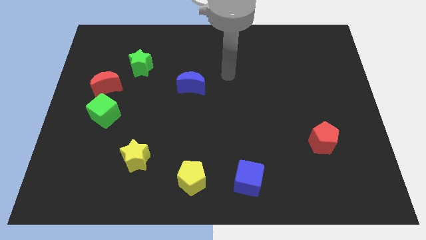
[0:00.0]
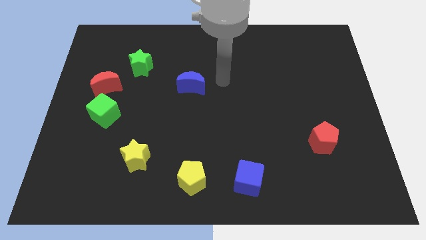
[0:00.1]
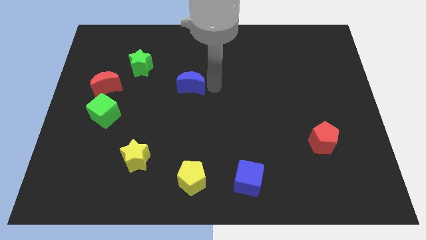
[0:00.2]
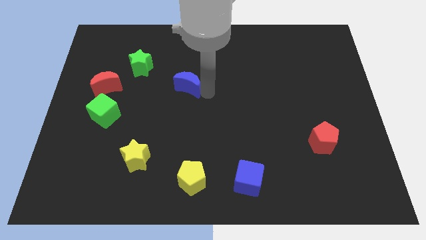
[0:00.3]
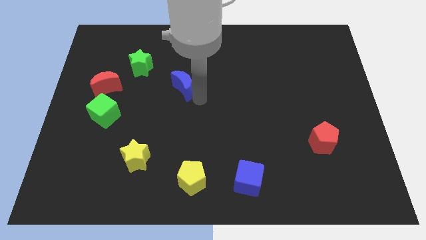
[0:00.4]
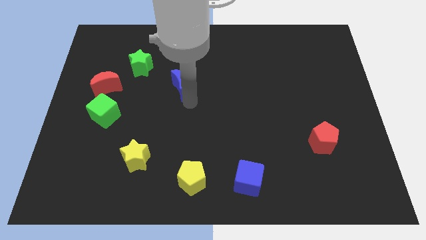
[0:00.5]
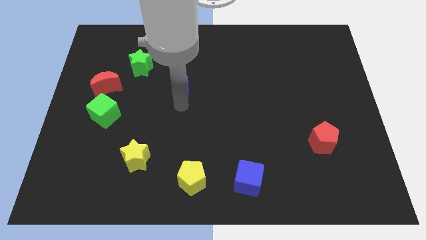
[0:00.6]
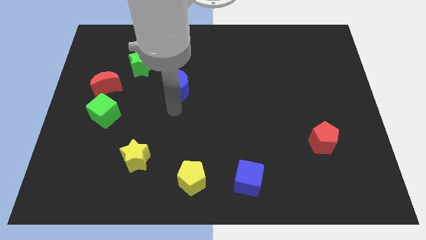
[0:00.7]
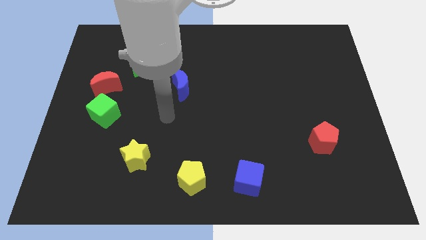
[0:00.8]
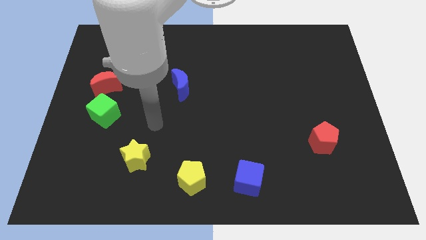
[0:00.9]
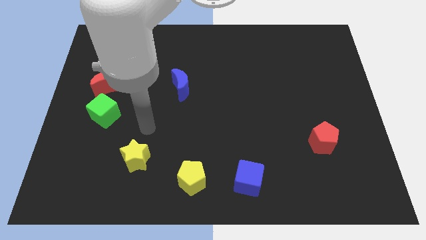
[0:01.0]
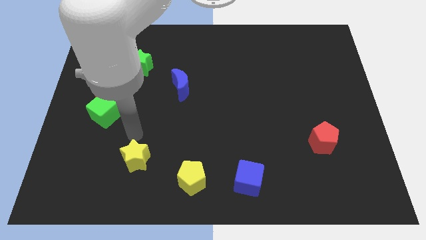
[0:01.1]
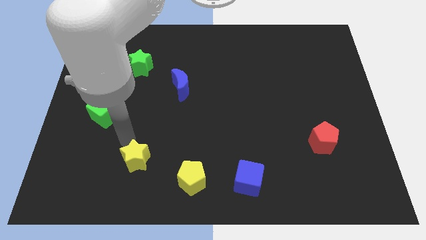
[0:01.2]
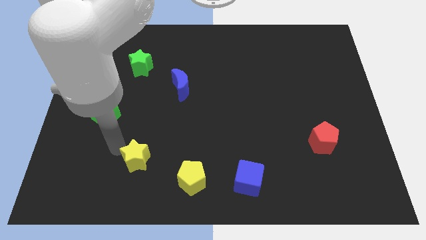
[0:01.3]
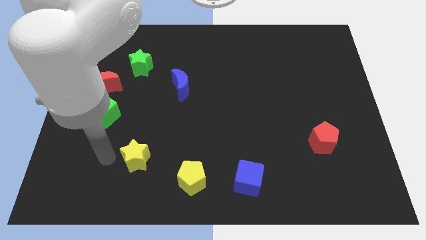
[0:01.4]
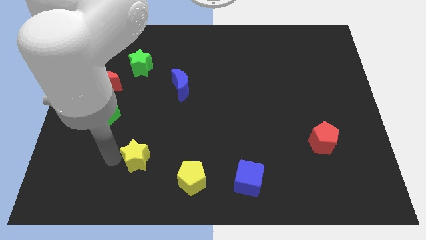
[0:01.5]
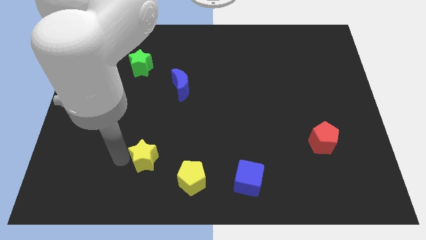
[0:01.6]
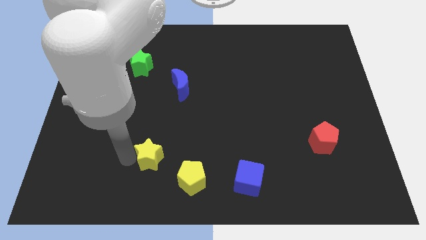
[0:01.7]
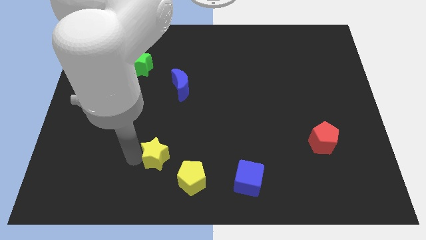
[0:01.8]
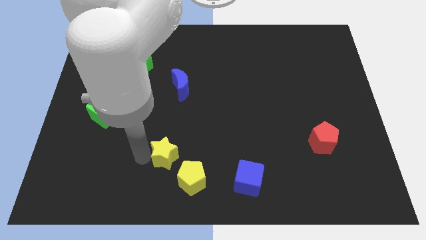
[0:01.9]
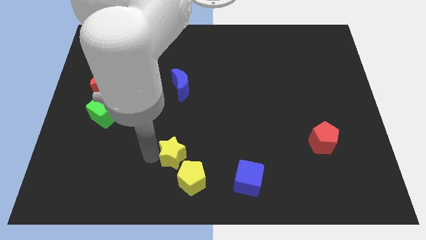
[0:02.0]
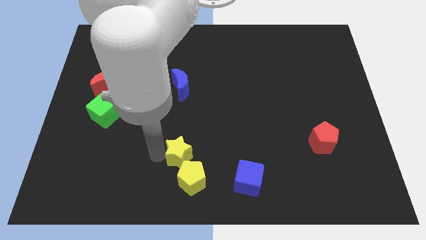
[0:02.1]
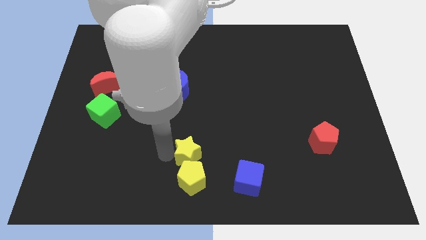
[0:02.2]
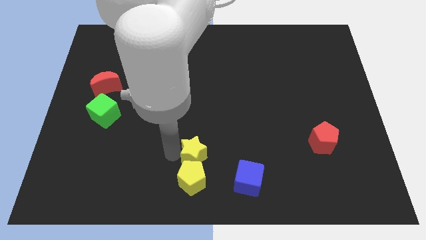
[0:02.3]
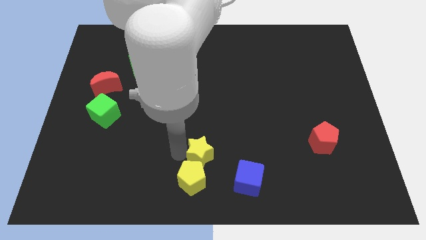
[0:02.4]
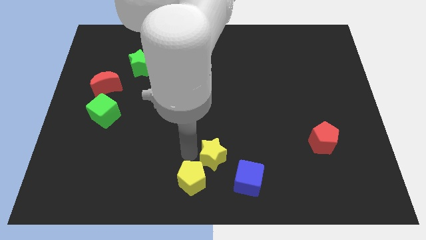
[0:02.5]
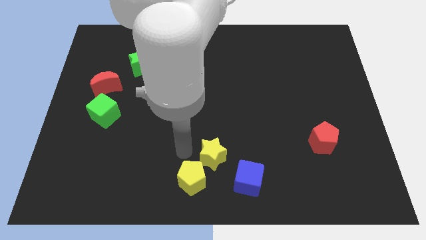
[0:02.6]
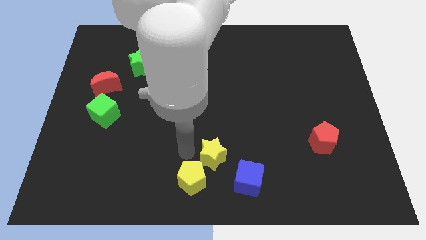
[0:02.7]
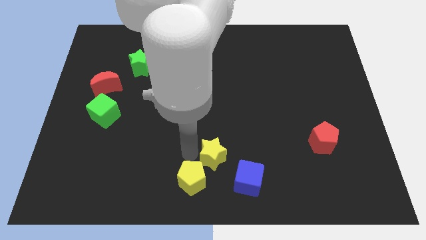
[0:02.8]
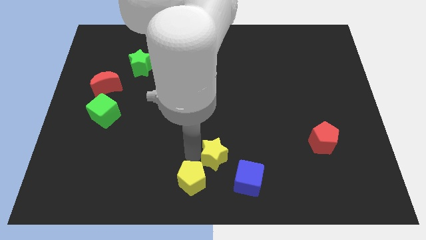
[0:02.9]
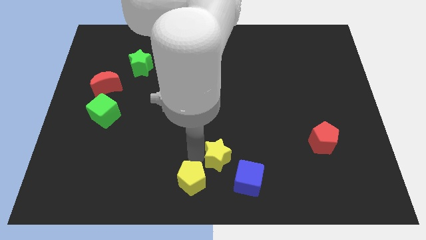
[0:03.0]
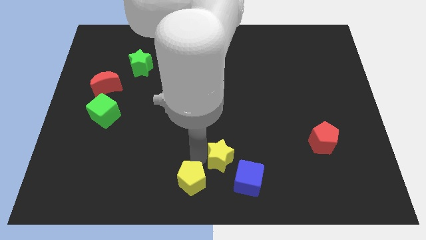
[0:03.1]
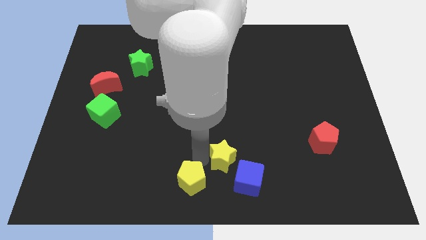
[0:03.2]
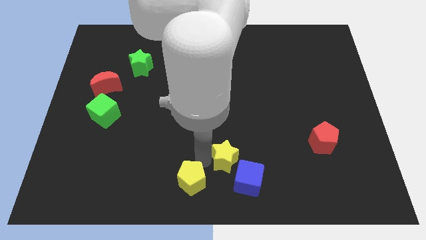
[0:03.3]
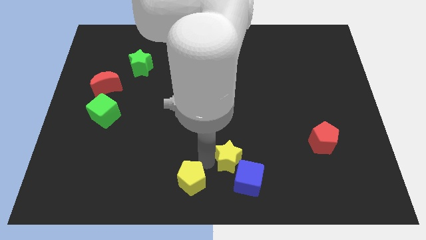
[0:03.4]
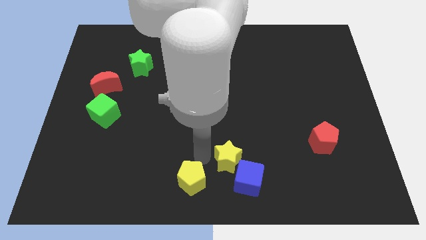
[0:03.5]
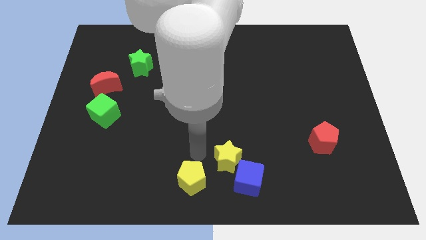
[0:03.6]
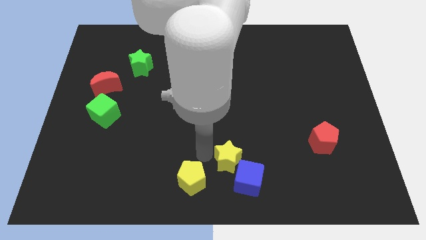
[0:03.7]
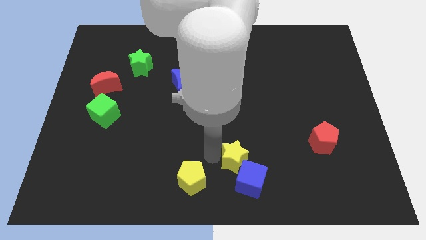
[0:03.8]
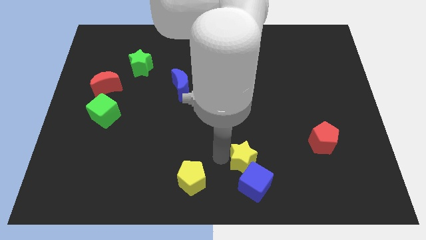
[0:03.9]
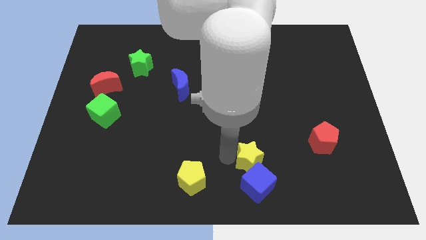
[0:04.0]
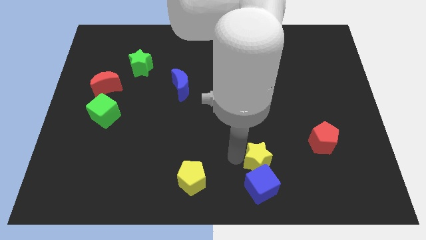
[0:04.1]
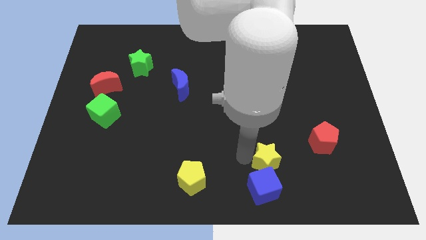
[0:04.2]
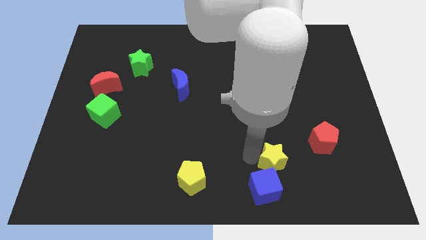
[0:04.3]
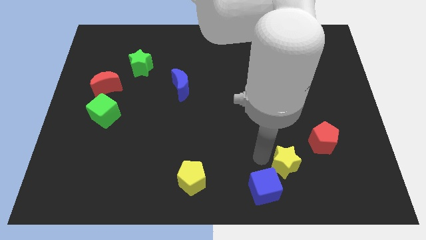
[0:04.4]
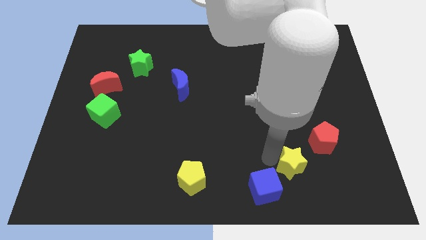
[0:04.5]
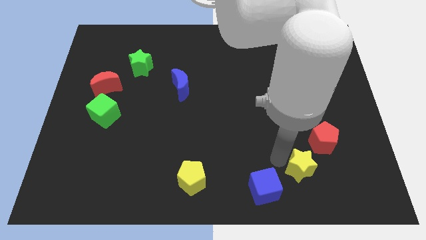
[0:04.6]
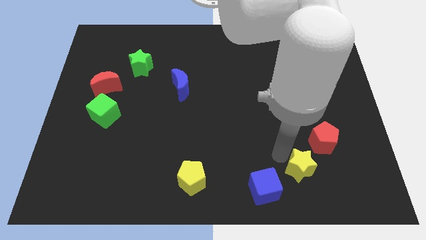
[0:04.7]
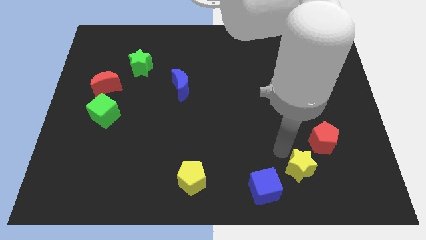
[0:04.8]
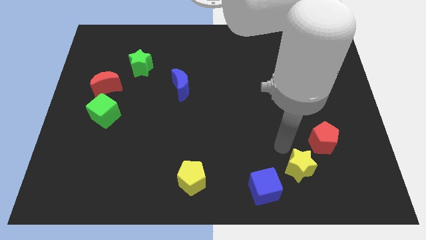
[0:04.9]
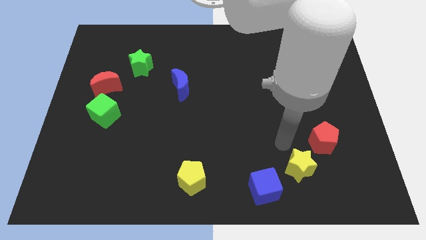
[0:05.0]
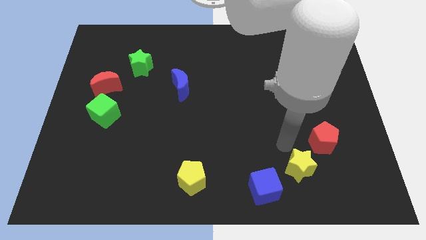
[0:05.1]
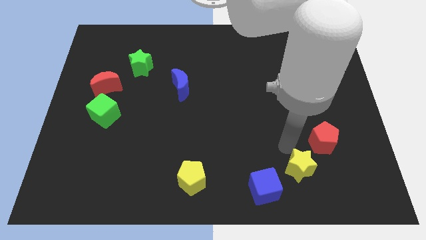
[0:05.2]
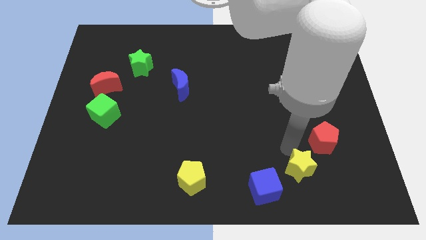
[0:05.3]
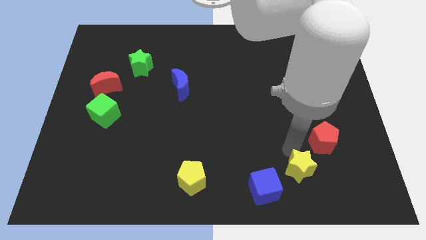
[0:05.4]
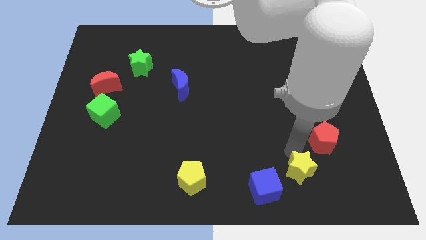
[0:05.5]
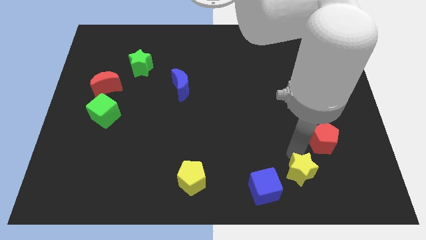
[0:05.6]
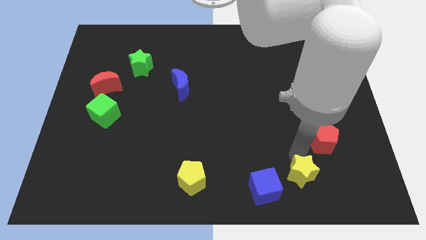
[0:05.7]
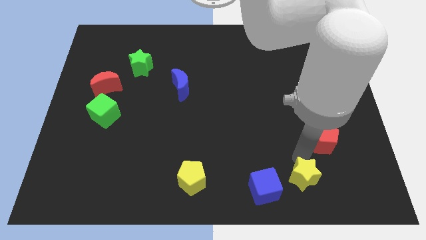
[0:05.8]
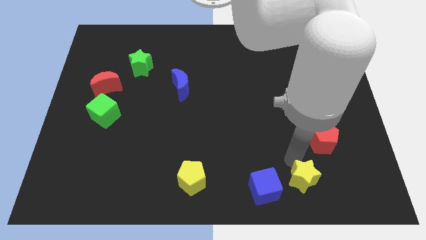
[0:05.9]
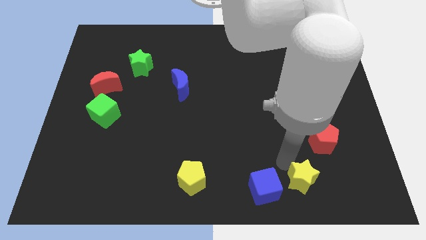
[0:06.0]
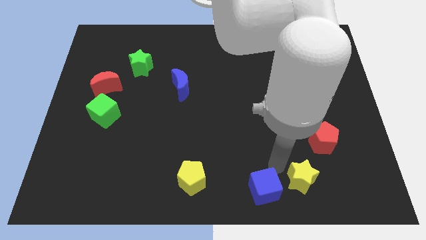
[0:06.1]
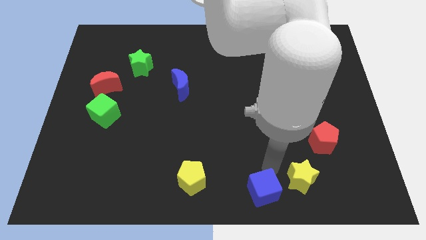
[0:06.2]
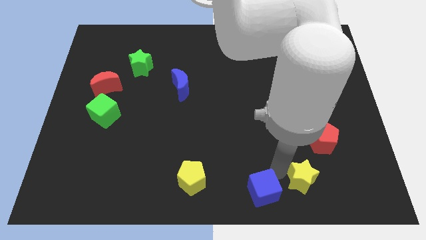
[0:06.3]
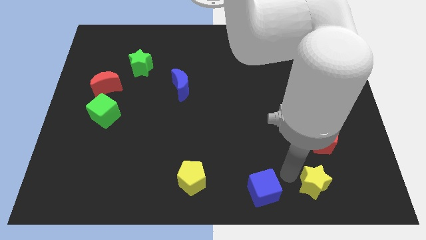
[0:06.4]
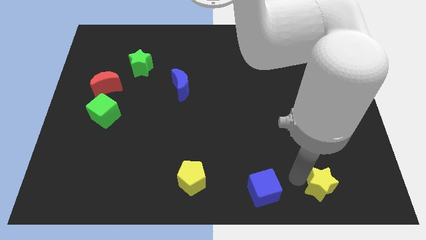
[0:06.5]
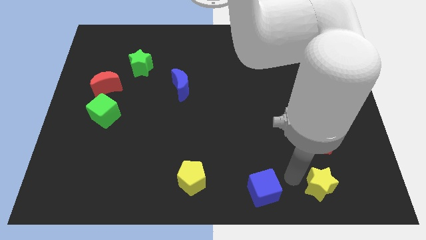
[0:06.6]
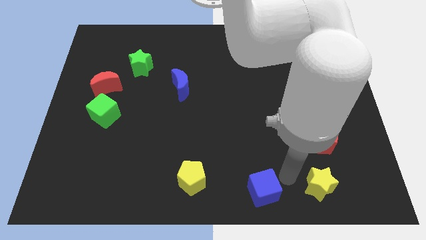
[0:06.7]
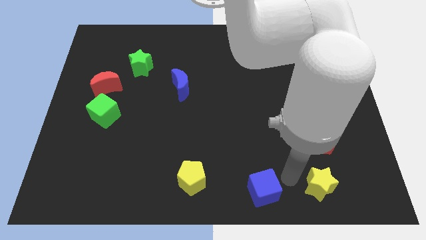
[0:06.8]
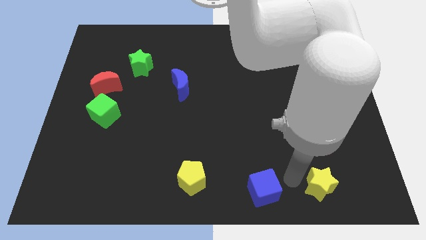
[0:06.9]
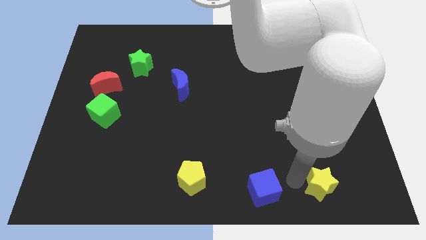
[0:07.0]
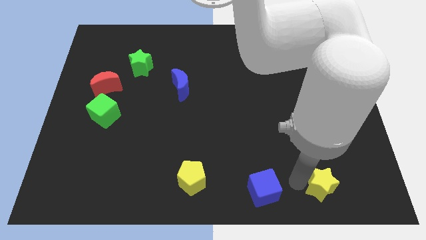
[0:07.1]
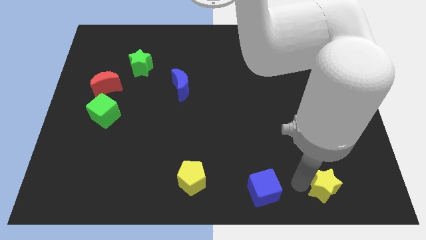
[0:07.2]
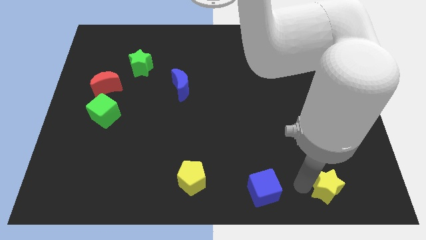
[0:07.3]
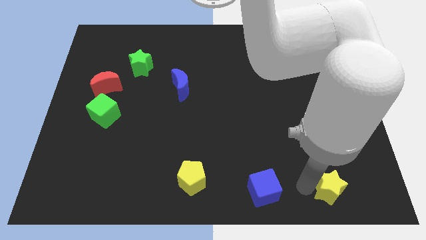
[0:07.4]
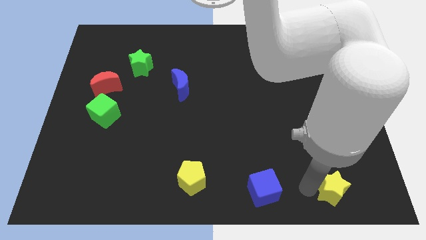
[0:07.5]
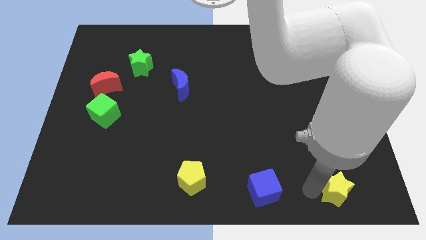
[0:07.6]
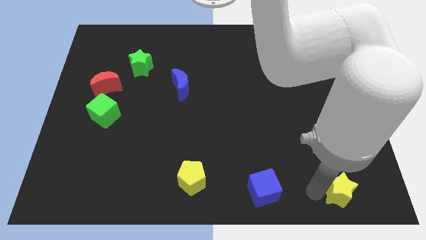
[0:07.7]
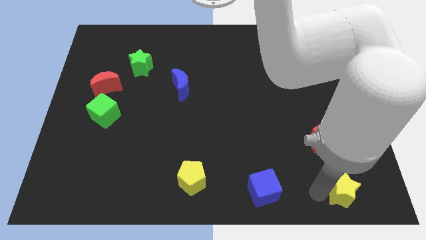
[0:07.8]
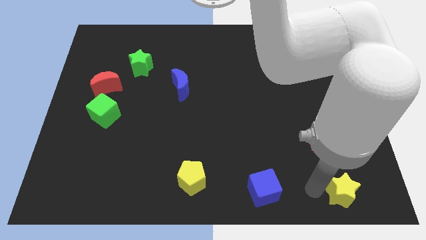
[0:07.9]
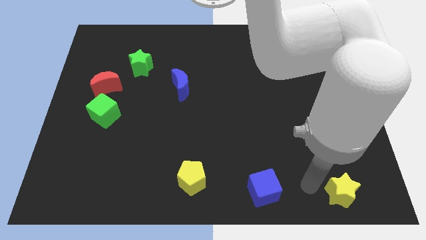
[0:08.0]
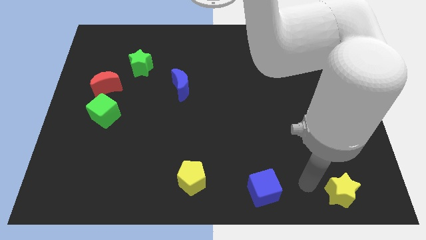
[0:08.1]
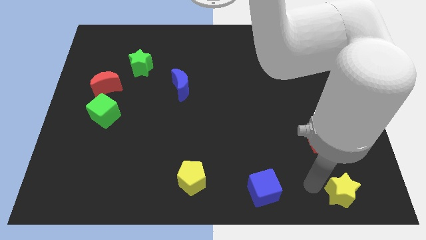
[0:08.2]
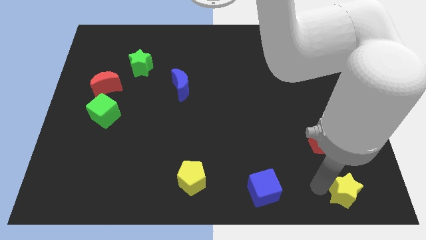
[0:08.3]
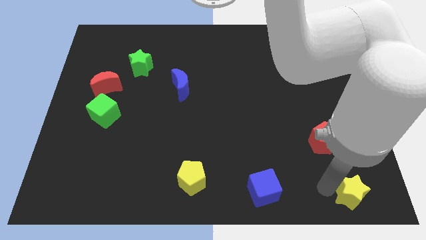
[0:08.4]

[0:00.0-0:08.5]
push the yellow star to the bottom right
